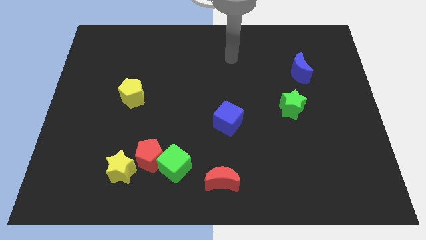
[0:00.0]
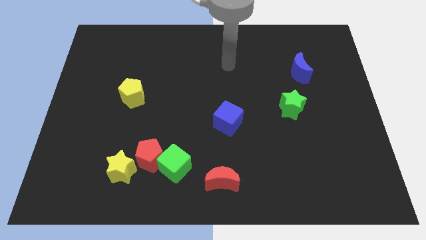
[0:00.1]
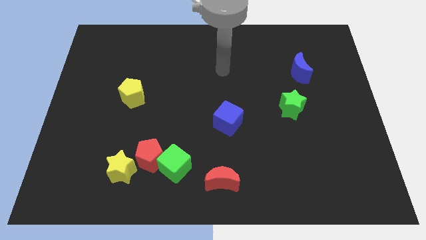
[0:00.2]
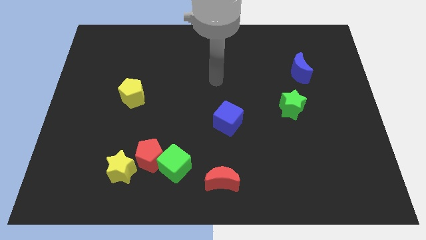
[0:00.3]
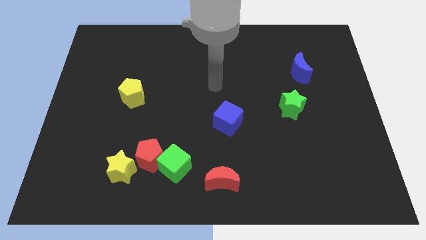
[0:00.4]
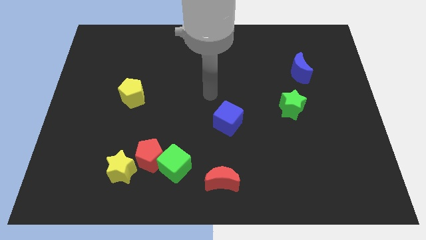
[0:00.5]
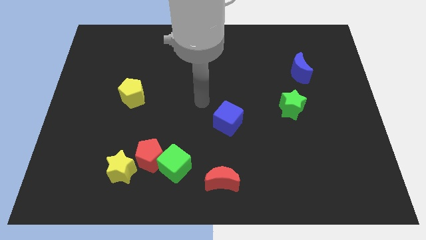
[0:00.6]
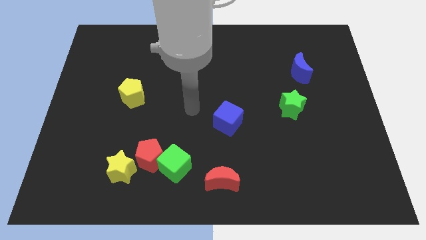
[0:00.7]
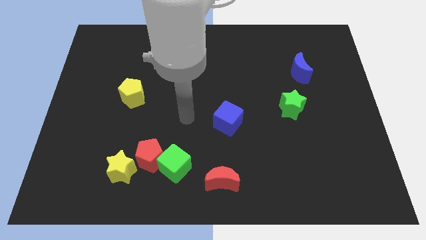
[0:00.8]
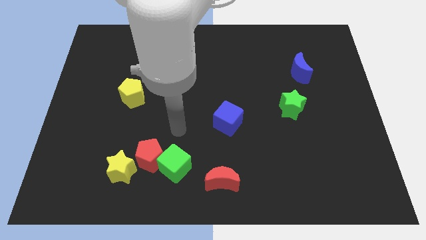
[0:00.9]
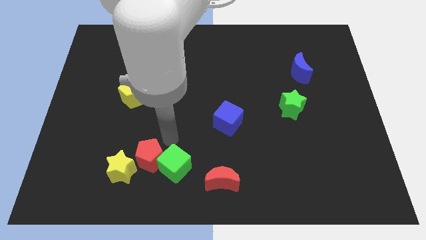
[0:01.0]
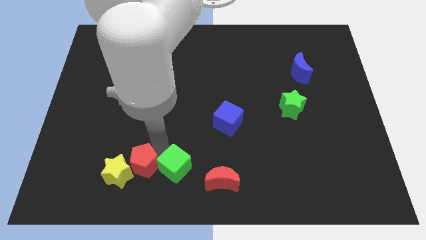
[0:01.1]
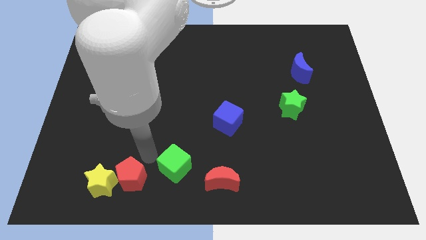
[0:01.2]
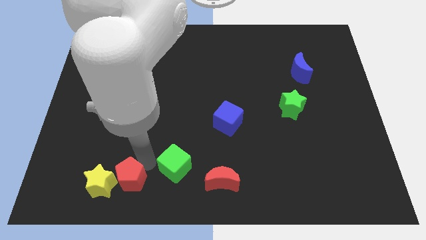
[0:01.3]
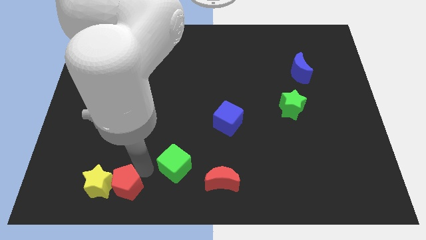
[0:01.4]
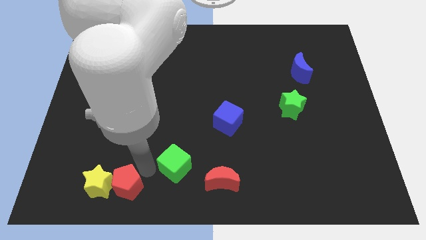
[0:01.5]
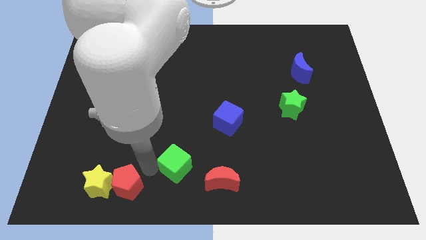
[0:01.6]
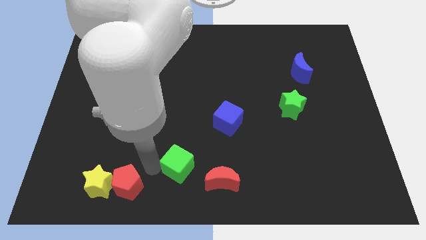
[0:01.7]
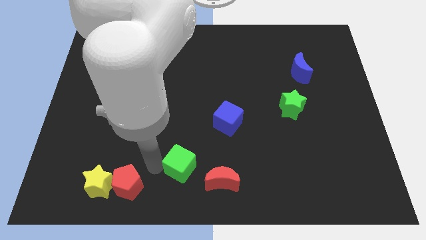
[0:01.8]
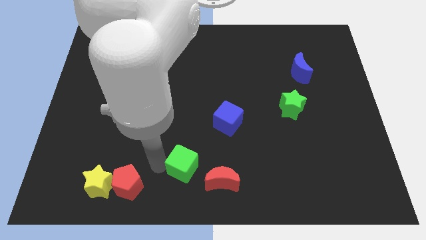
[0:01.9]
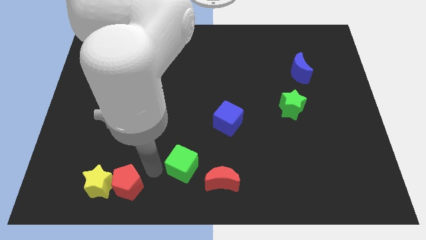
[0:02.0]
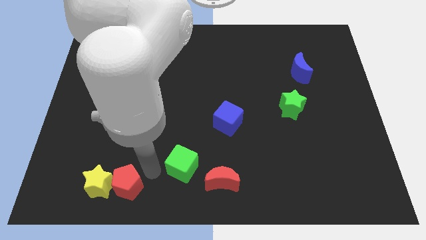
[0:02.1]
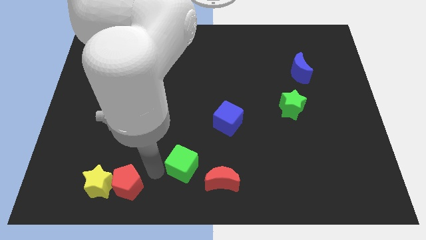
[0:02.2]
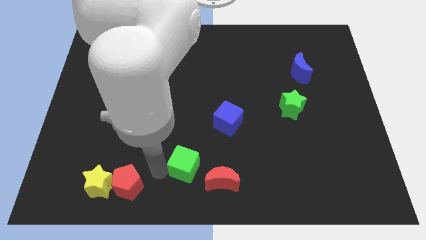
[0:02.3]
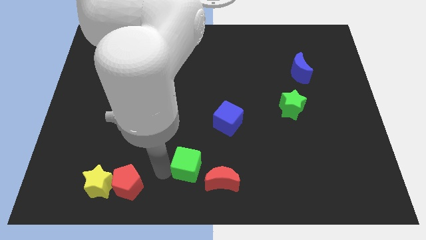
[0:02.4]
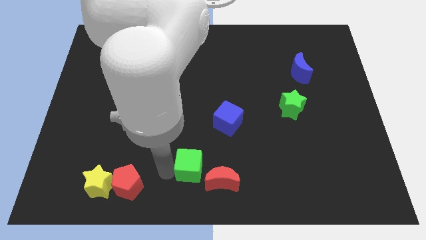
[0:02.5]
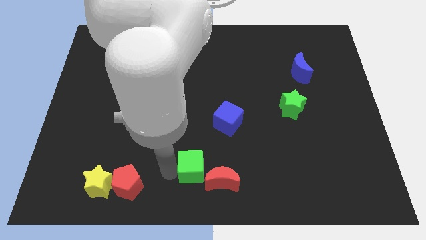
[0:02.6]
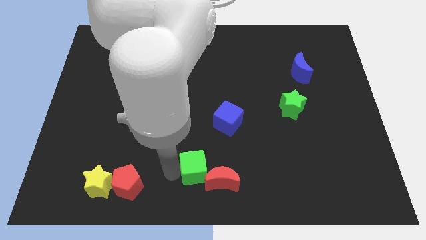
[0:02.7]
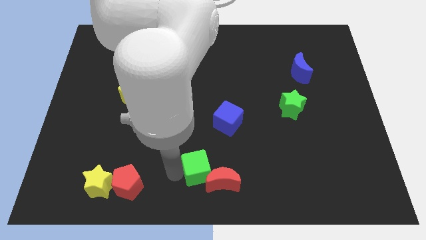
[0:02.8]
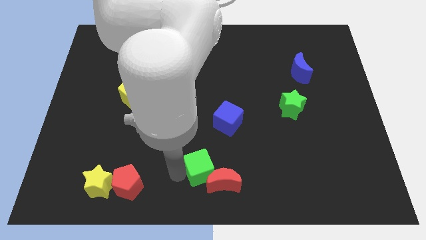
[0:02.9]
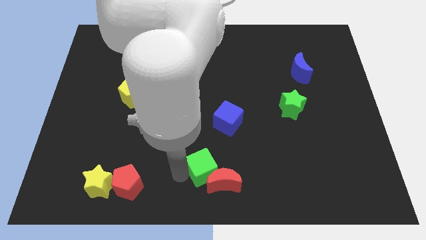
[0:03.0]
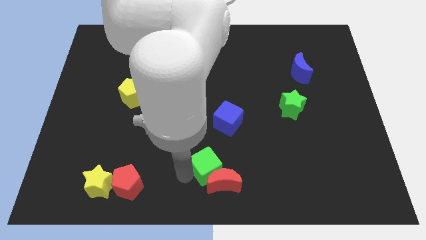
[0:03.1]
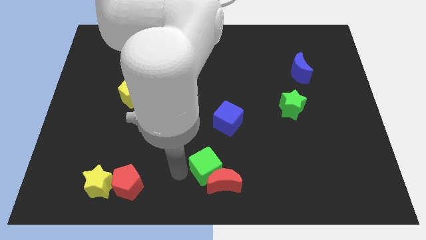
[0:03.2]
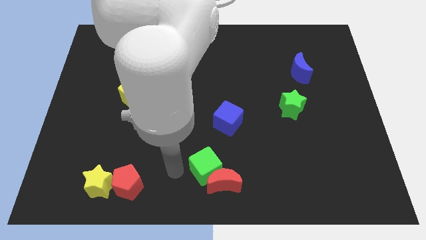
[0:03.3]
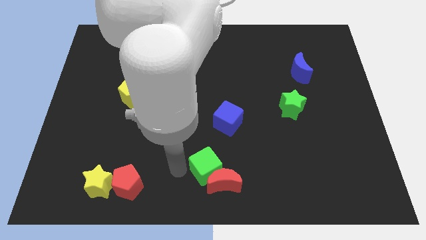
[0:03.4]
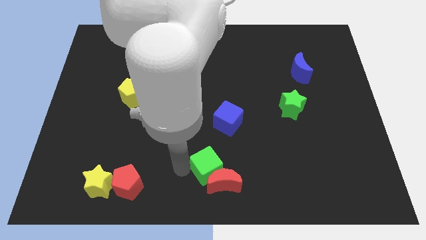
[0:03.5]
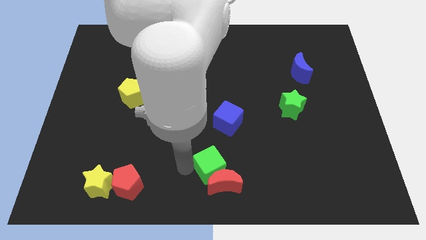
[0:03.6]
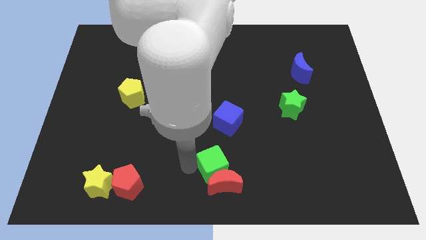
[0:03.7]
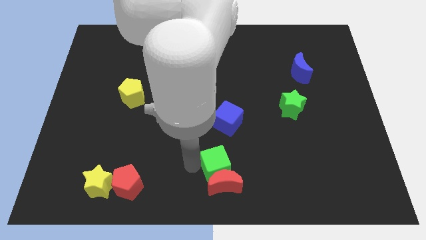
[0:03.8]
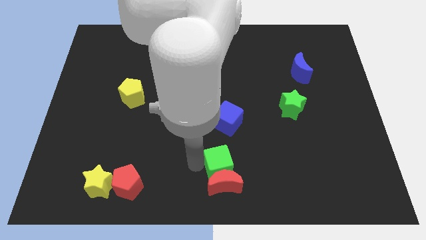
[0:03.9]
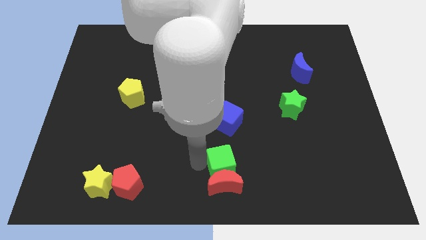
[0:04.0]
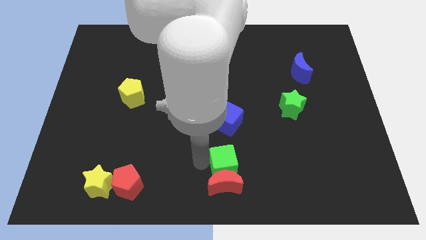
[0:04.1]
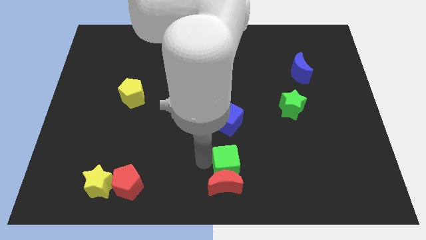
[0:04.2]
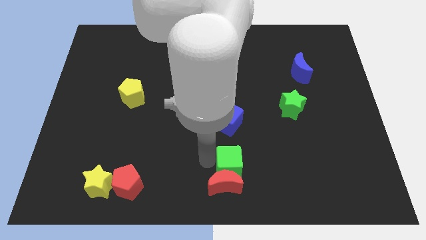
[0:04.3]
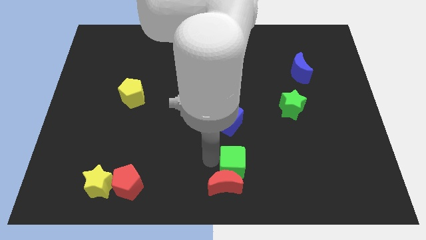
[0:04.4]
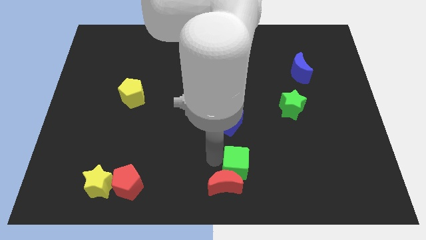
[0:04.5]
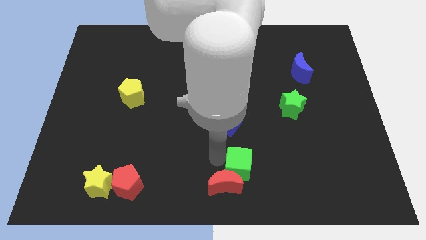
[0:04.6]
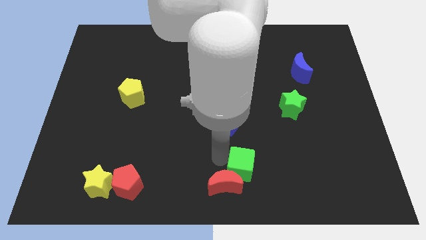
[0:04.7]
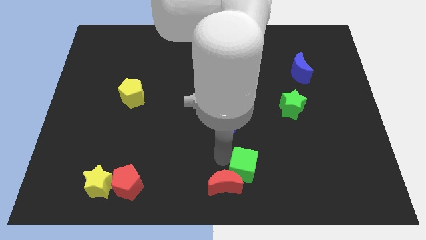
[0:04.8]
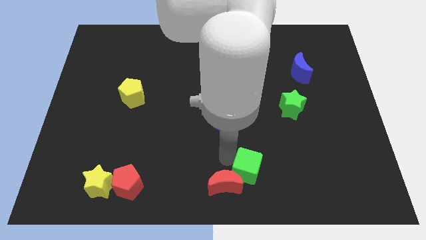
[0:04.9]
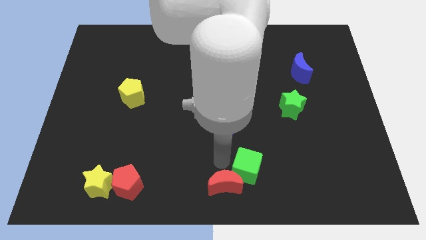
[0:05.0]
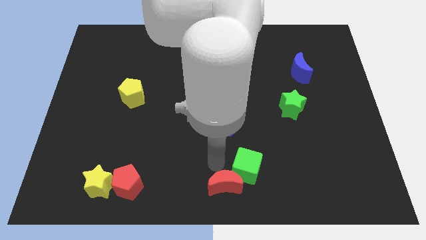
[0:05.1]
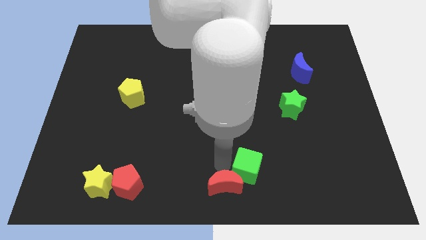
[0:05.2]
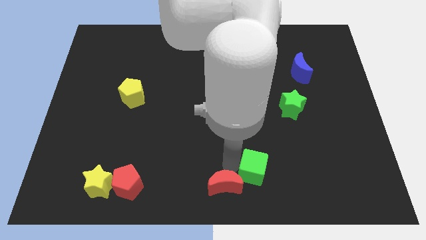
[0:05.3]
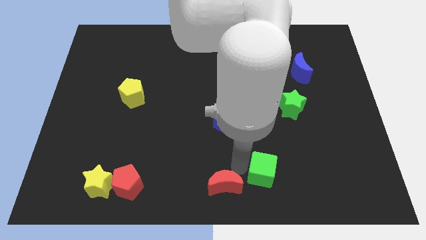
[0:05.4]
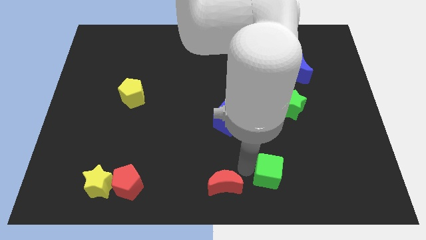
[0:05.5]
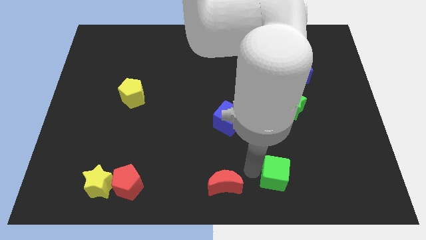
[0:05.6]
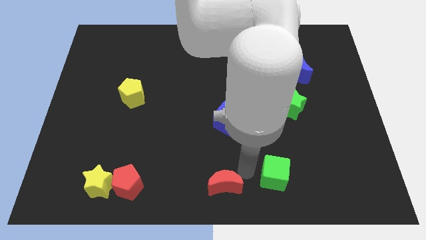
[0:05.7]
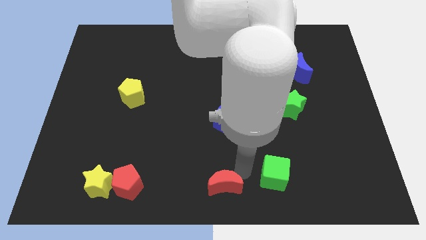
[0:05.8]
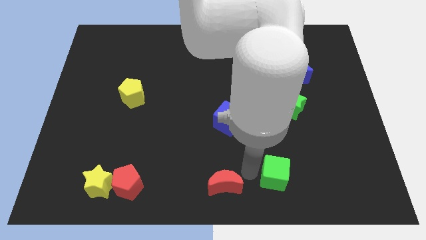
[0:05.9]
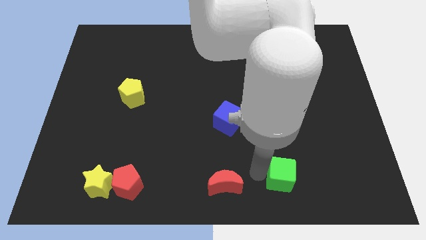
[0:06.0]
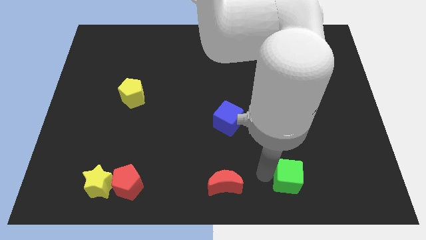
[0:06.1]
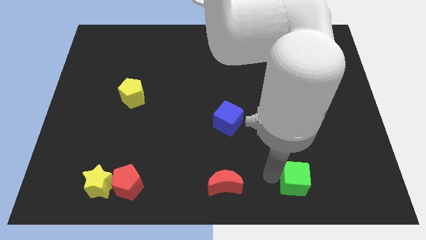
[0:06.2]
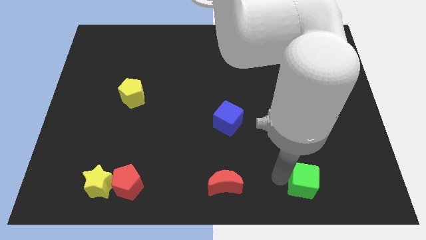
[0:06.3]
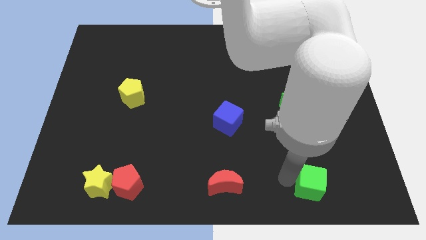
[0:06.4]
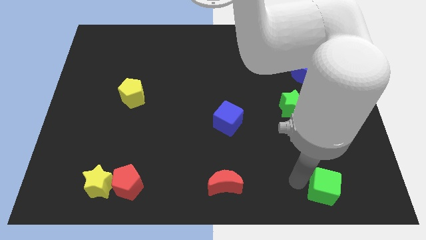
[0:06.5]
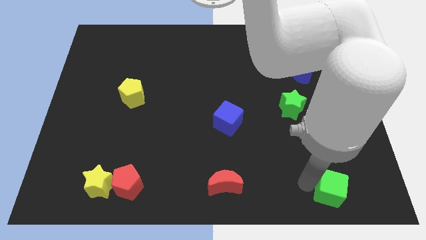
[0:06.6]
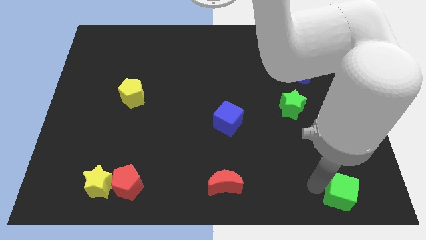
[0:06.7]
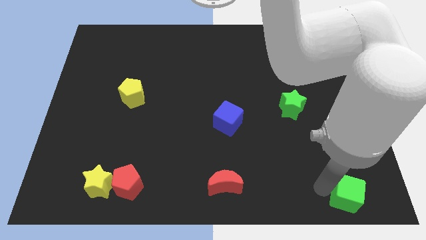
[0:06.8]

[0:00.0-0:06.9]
push the green cube to the bottom right corner
